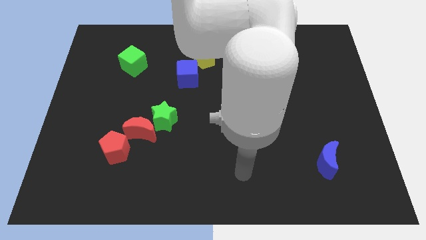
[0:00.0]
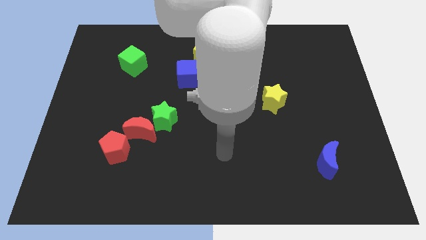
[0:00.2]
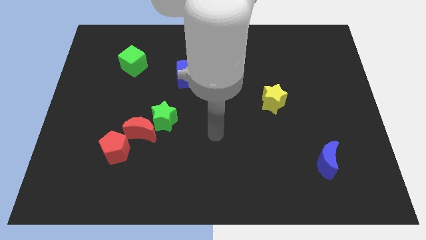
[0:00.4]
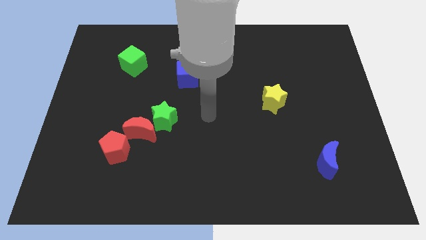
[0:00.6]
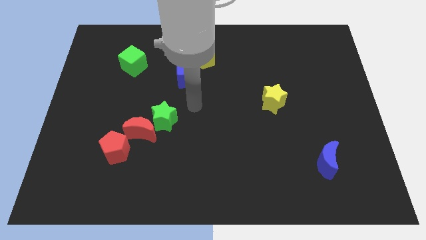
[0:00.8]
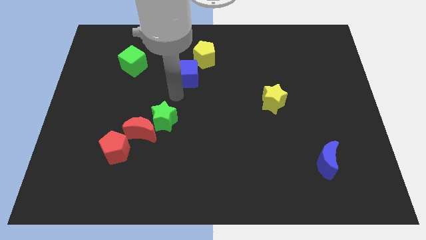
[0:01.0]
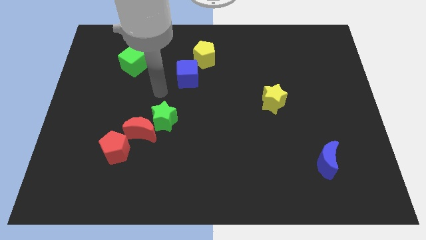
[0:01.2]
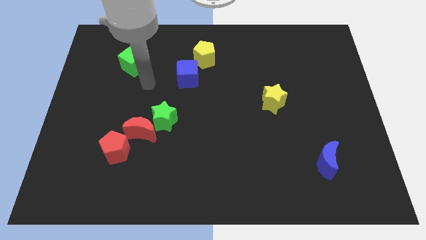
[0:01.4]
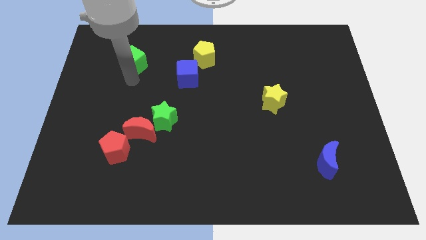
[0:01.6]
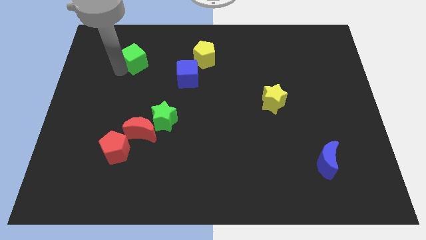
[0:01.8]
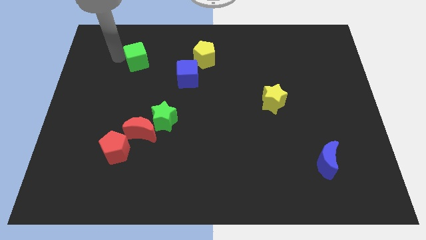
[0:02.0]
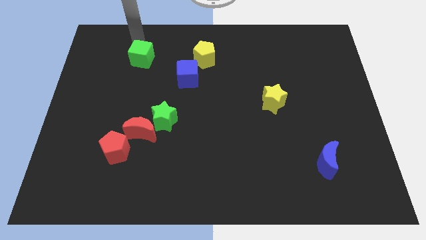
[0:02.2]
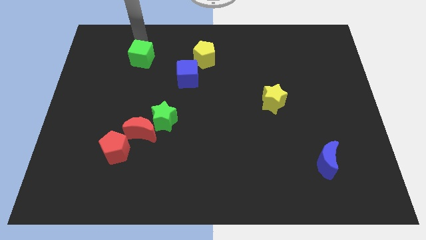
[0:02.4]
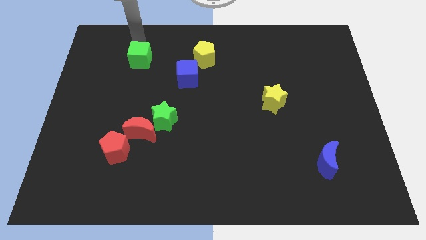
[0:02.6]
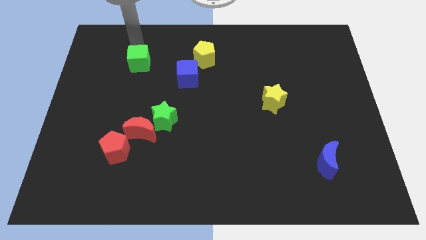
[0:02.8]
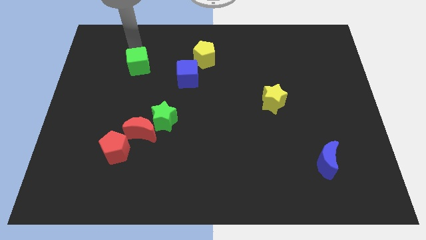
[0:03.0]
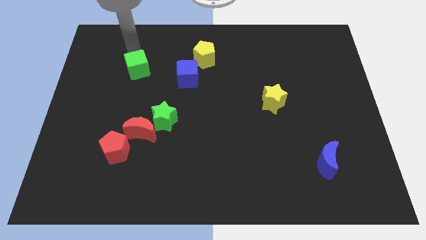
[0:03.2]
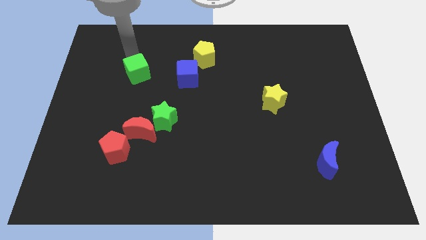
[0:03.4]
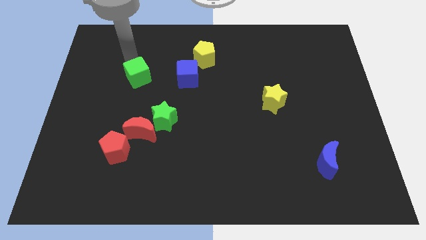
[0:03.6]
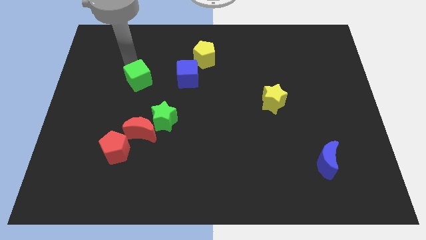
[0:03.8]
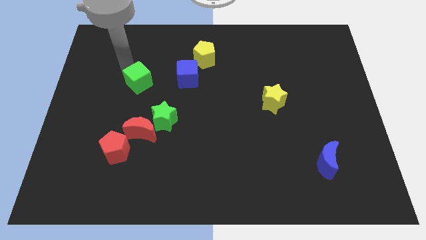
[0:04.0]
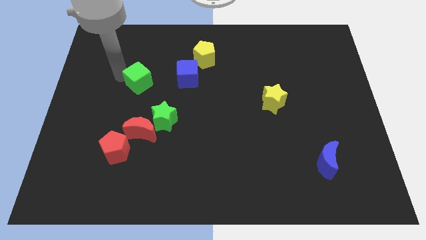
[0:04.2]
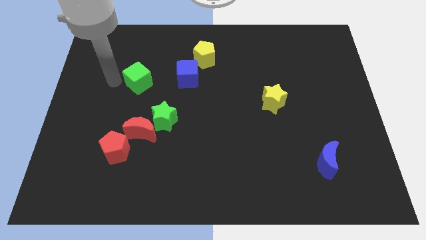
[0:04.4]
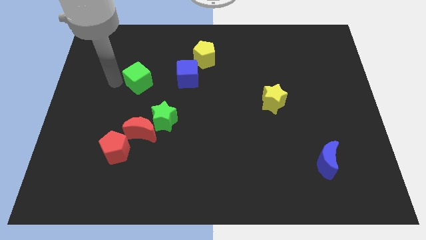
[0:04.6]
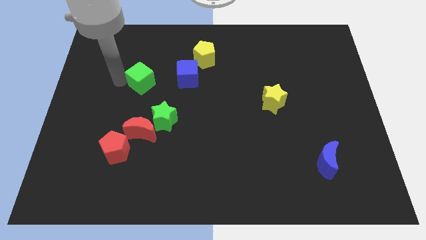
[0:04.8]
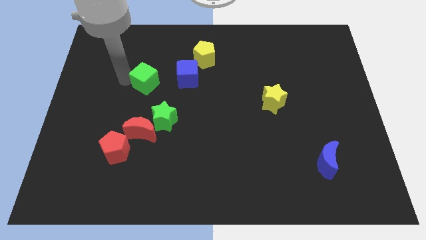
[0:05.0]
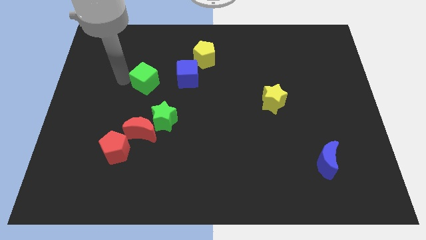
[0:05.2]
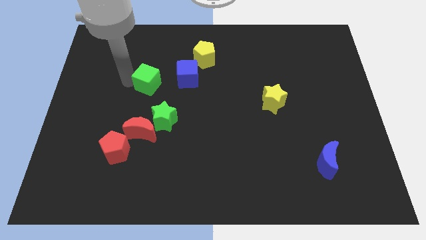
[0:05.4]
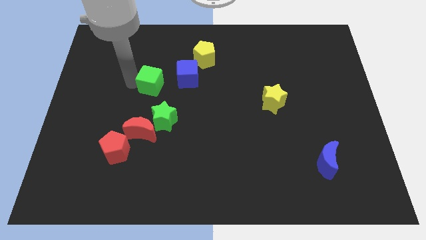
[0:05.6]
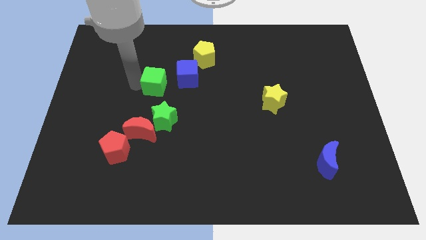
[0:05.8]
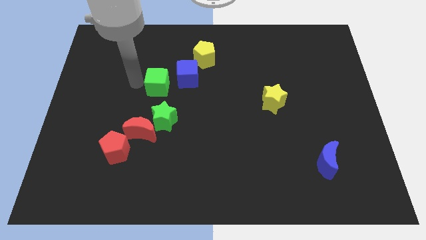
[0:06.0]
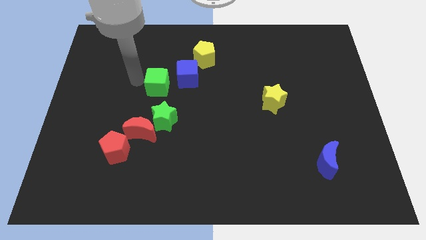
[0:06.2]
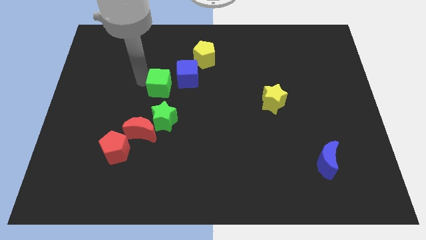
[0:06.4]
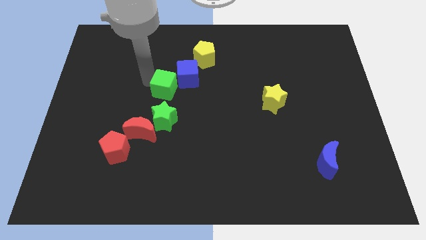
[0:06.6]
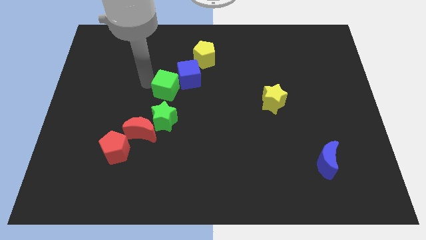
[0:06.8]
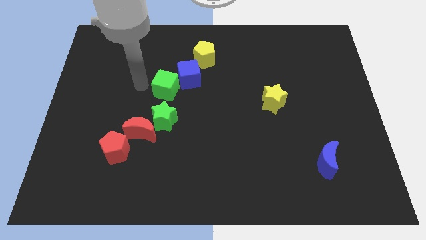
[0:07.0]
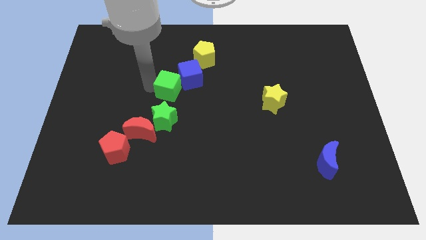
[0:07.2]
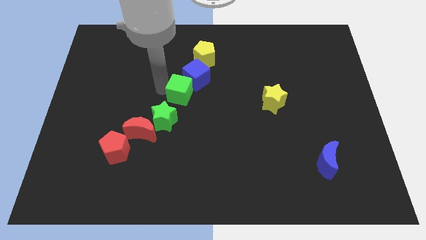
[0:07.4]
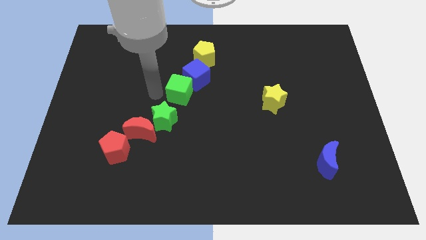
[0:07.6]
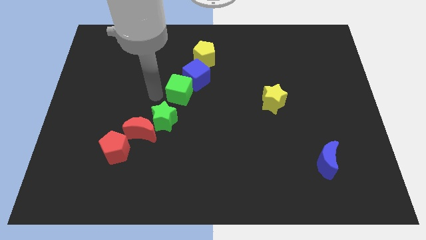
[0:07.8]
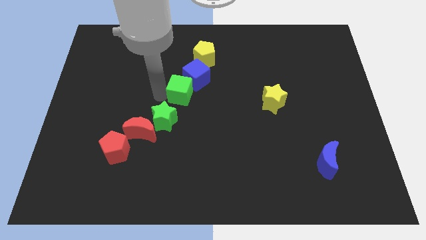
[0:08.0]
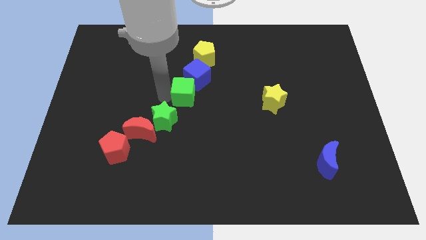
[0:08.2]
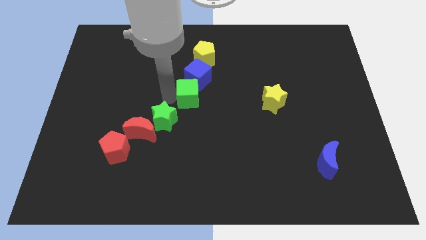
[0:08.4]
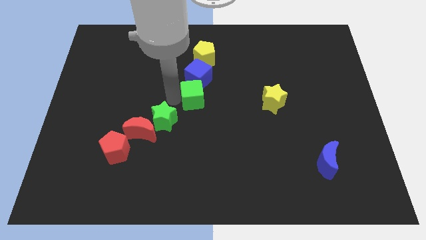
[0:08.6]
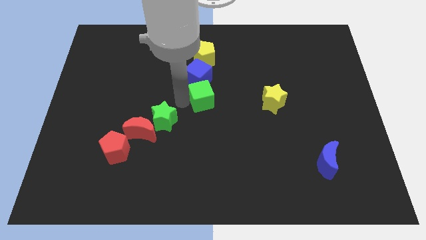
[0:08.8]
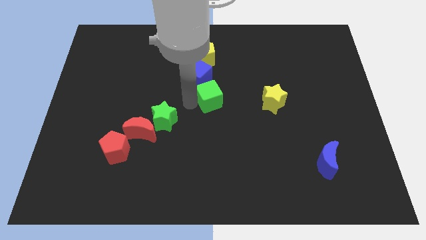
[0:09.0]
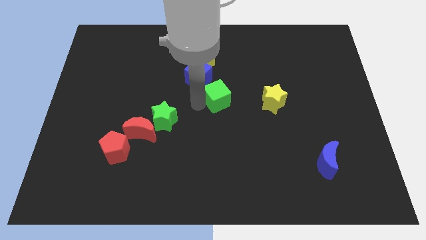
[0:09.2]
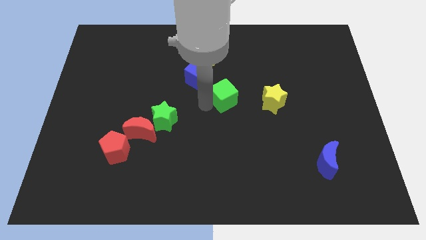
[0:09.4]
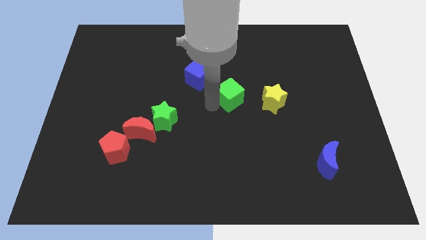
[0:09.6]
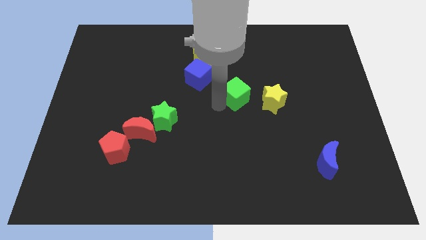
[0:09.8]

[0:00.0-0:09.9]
move the green cube to the right

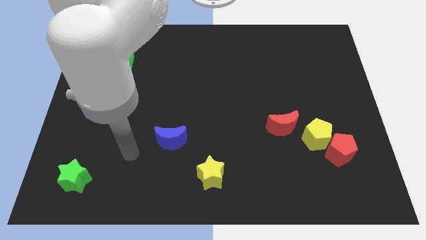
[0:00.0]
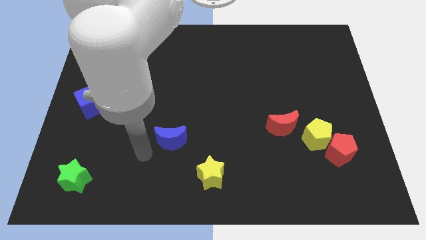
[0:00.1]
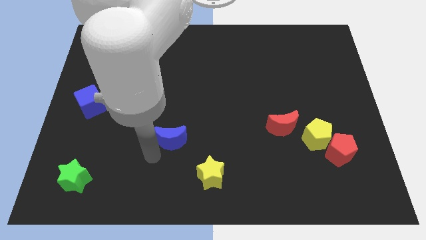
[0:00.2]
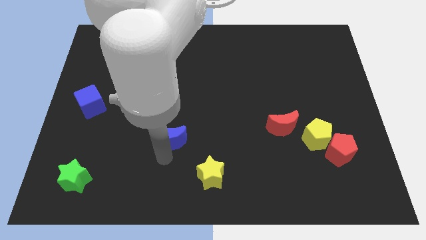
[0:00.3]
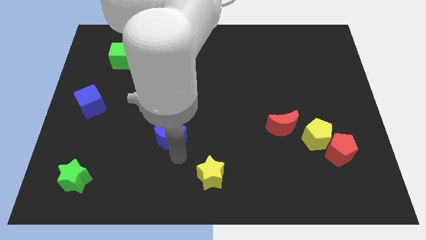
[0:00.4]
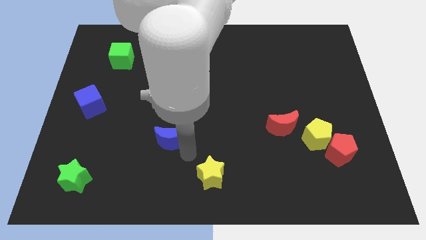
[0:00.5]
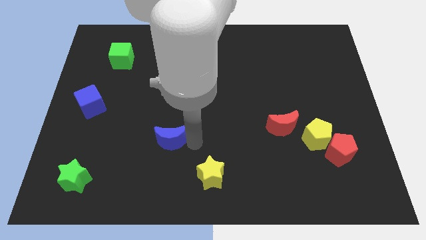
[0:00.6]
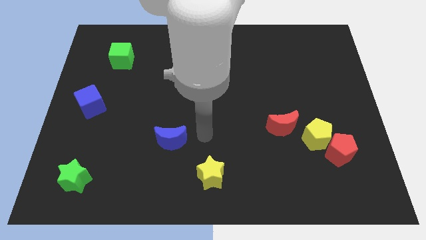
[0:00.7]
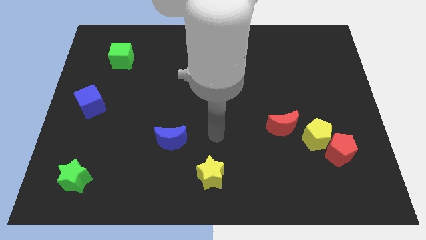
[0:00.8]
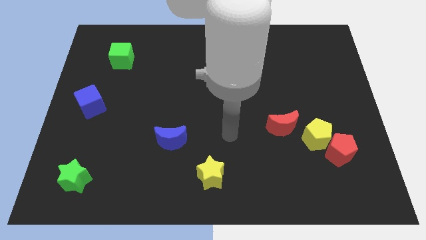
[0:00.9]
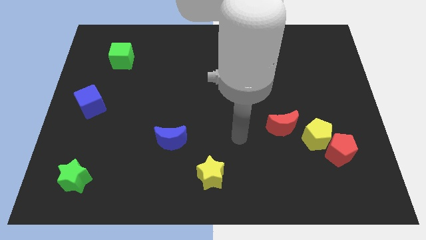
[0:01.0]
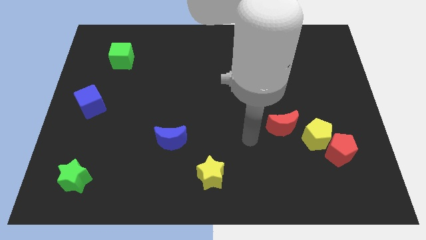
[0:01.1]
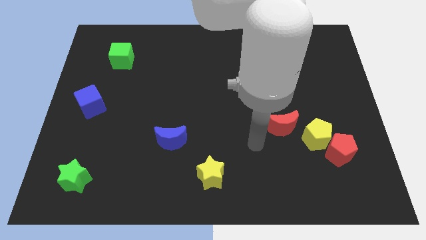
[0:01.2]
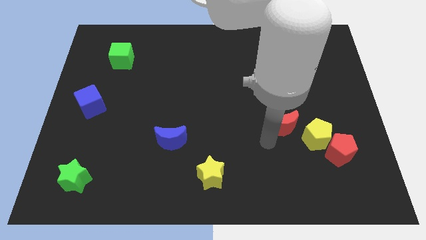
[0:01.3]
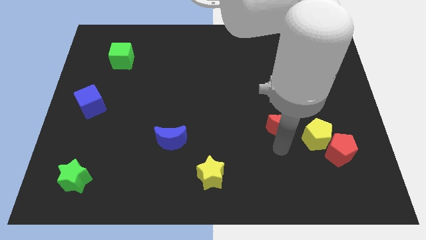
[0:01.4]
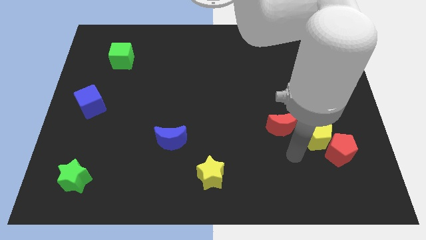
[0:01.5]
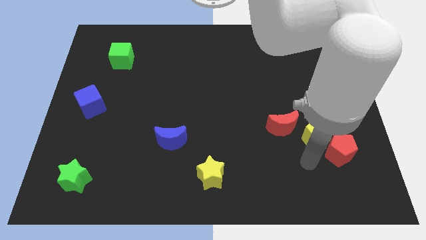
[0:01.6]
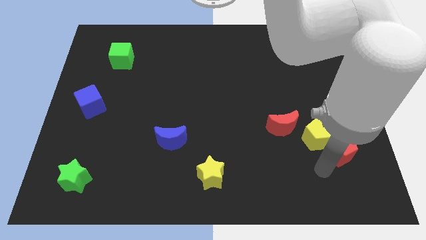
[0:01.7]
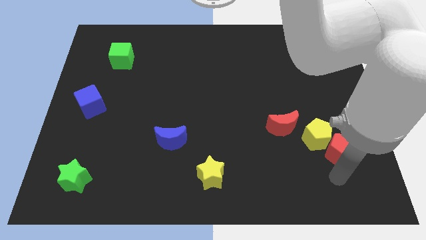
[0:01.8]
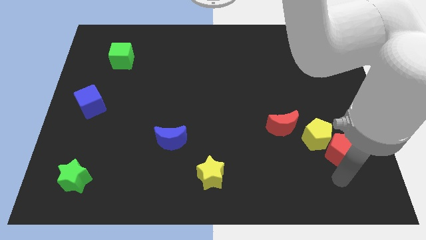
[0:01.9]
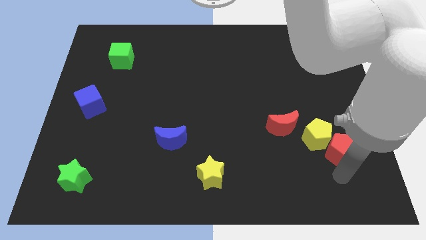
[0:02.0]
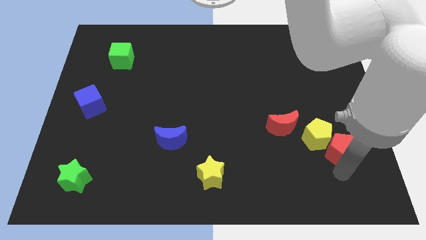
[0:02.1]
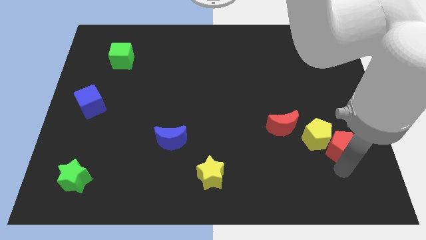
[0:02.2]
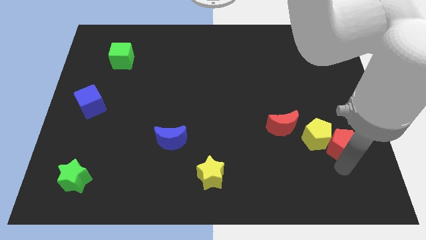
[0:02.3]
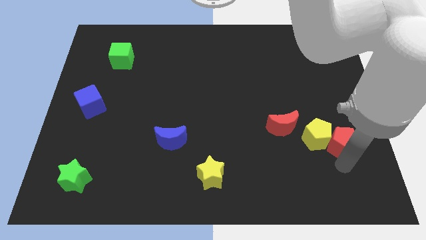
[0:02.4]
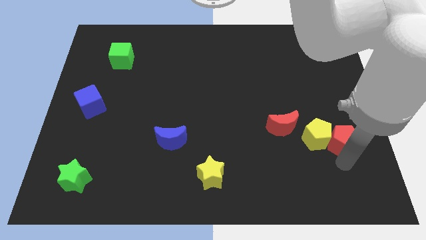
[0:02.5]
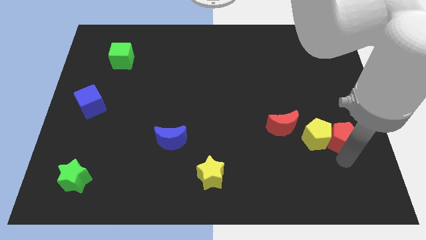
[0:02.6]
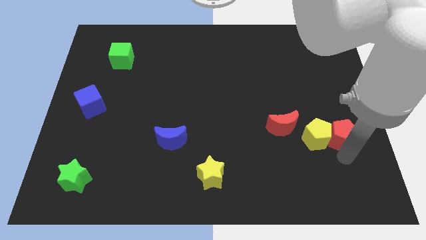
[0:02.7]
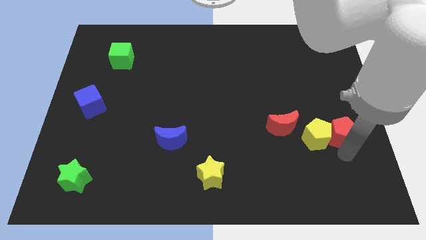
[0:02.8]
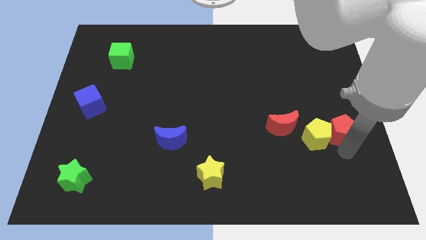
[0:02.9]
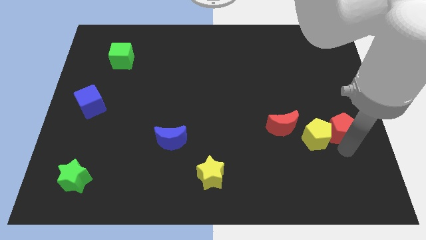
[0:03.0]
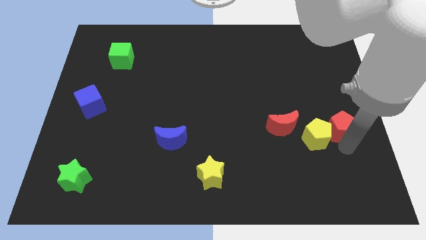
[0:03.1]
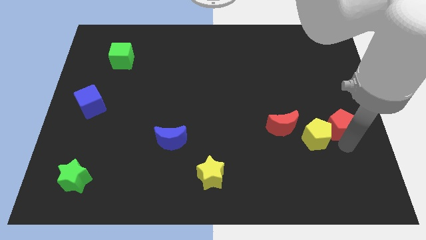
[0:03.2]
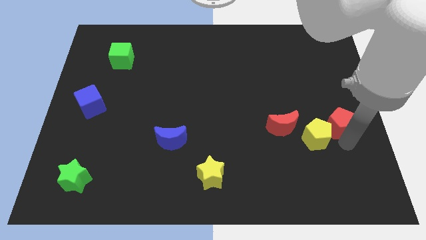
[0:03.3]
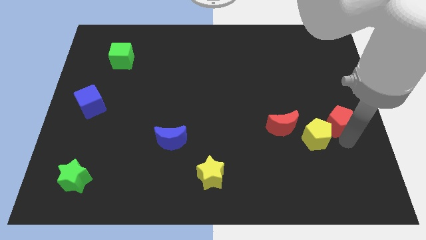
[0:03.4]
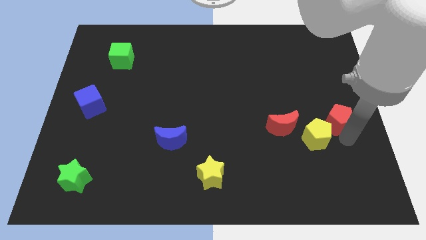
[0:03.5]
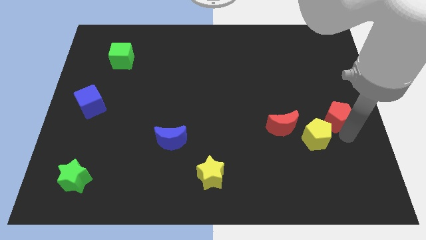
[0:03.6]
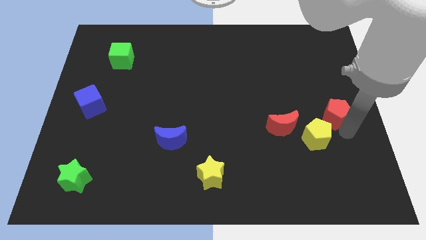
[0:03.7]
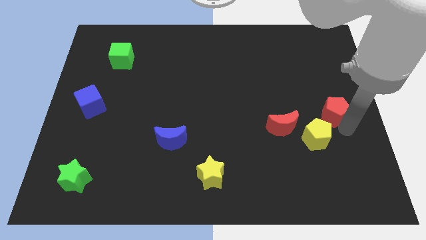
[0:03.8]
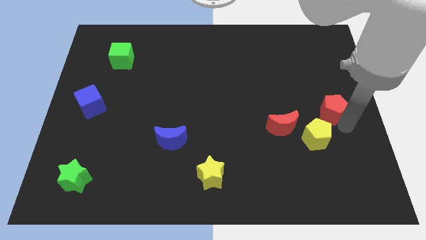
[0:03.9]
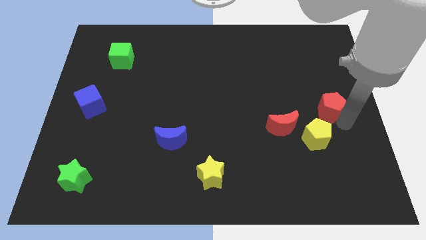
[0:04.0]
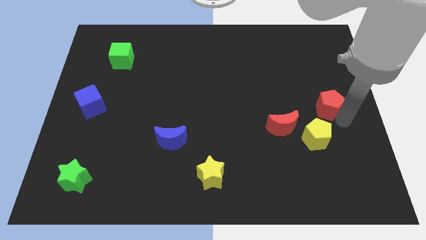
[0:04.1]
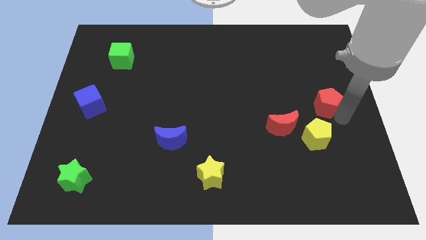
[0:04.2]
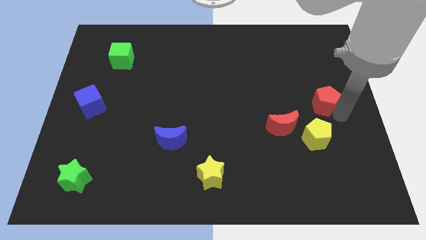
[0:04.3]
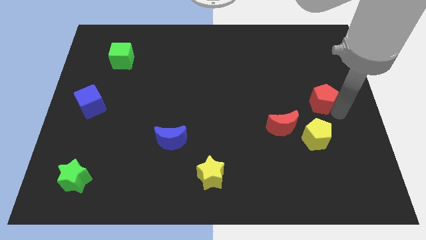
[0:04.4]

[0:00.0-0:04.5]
slide the red pentagon diagonally upwards and to the left a bit
